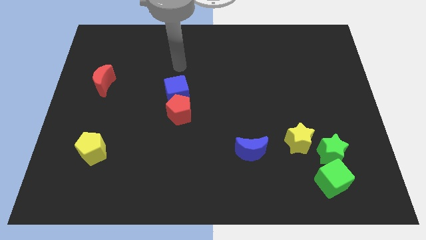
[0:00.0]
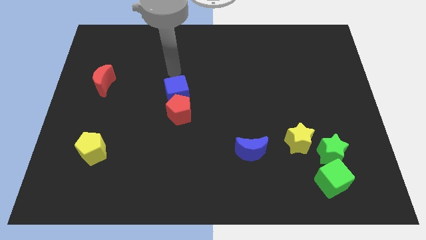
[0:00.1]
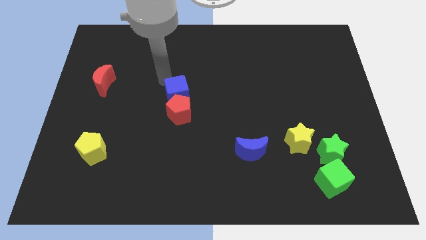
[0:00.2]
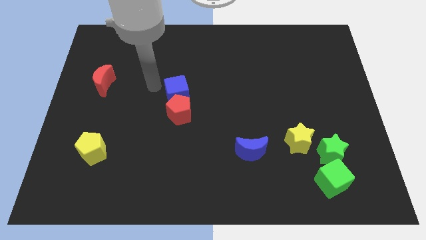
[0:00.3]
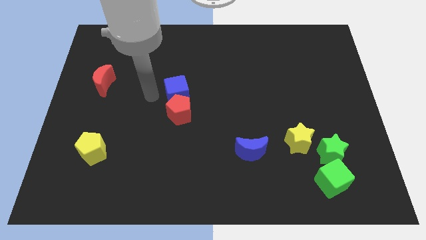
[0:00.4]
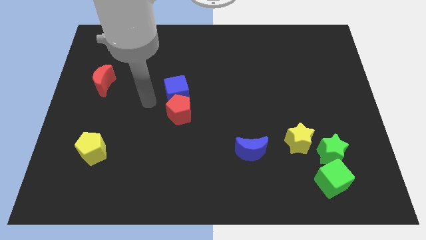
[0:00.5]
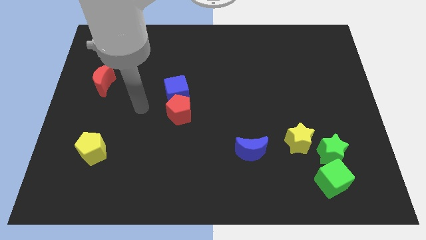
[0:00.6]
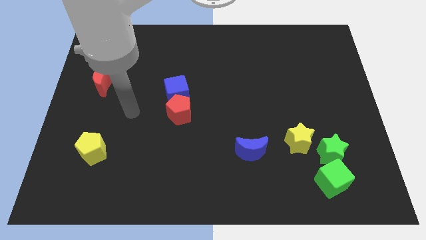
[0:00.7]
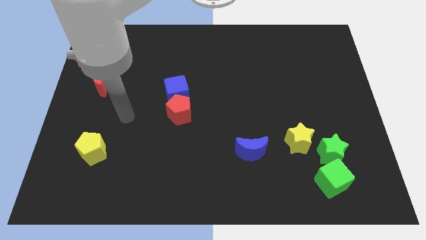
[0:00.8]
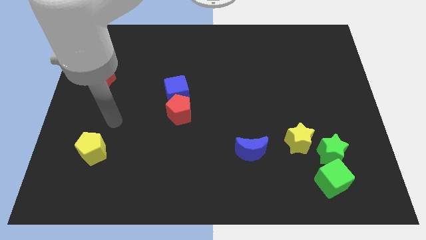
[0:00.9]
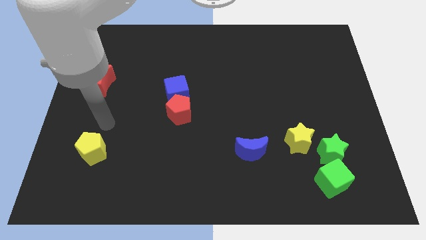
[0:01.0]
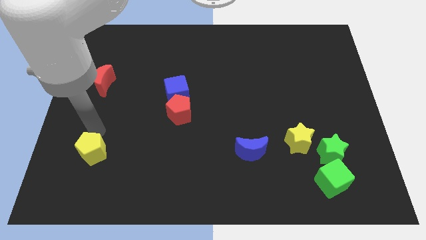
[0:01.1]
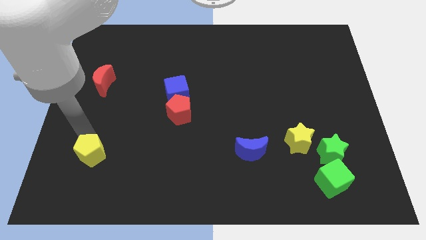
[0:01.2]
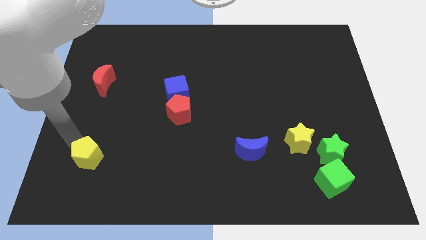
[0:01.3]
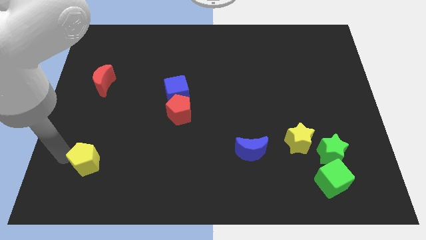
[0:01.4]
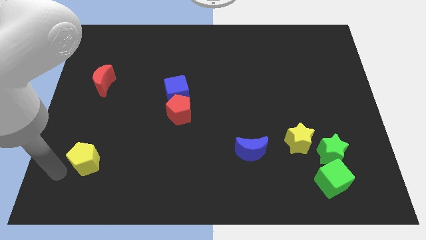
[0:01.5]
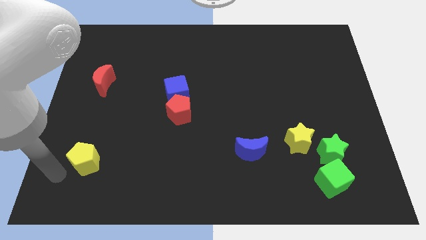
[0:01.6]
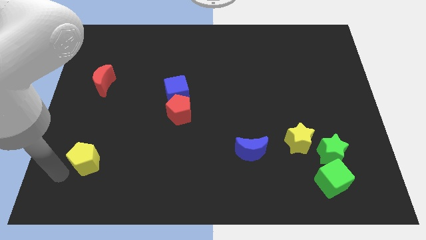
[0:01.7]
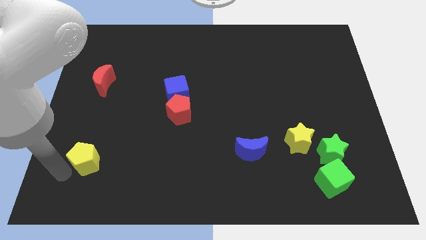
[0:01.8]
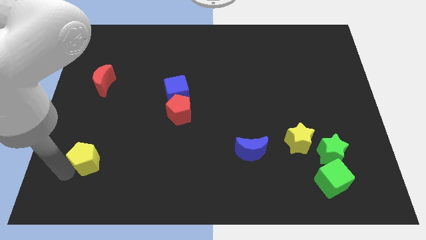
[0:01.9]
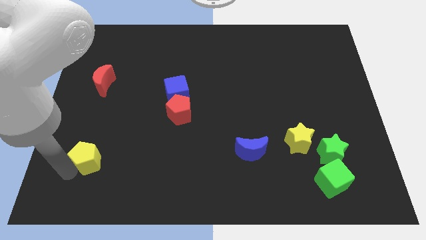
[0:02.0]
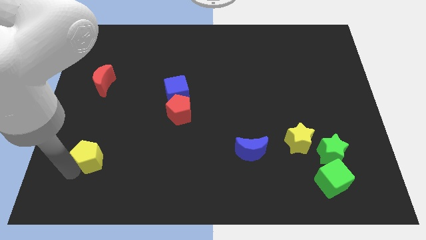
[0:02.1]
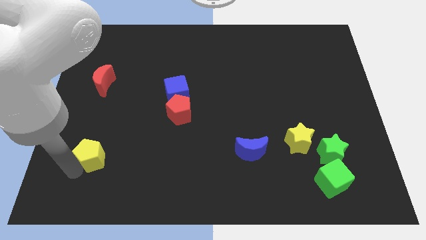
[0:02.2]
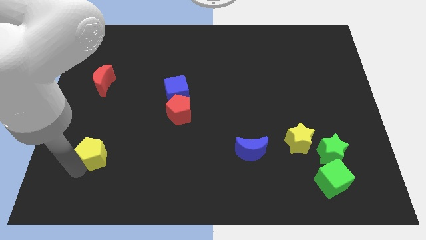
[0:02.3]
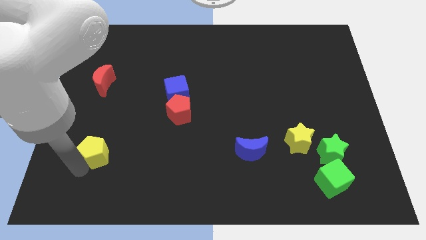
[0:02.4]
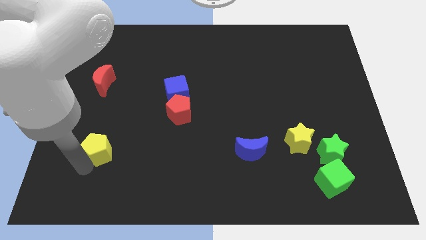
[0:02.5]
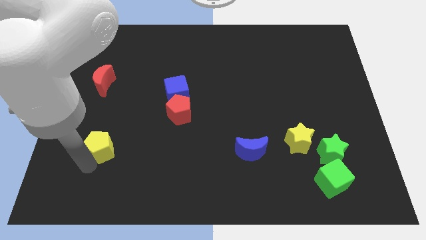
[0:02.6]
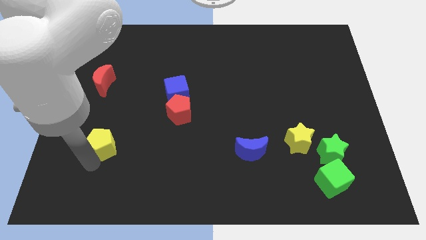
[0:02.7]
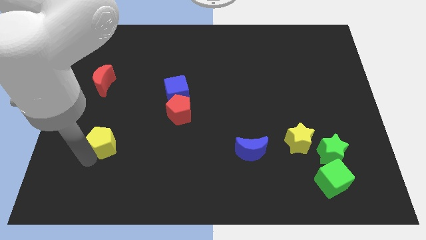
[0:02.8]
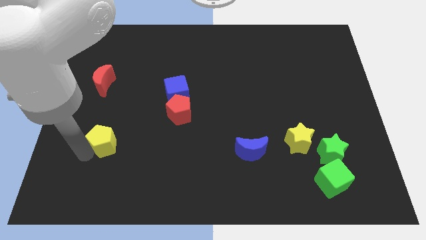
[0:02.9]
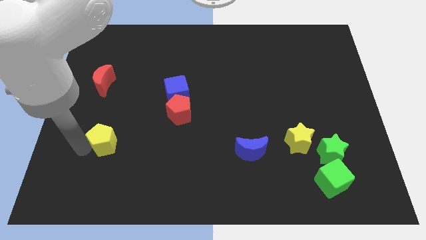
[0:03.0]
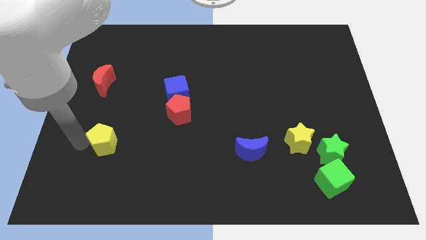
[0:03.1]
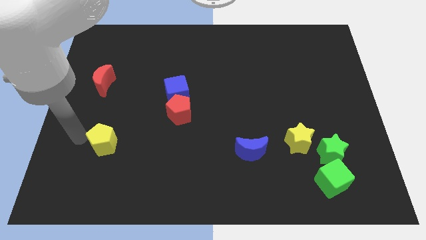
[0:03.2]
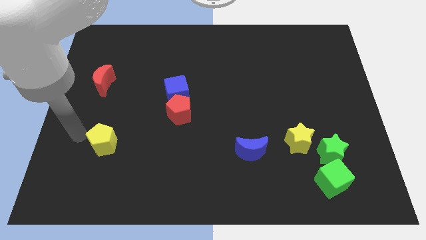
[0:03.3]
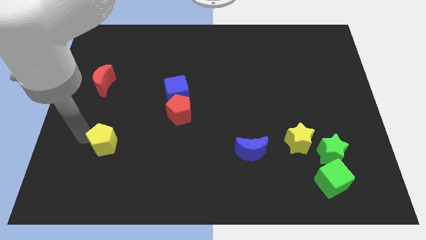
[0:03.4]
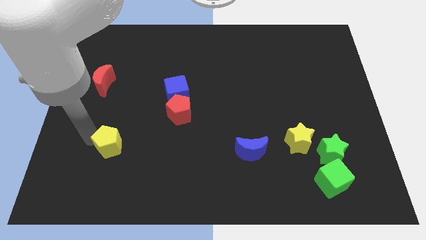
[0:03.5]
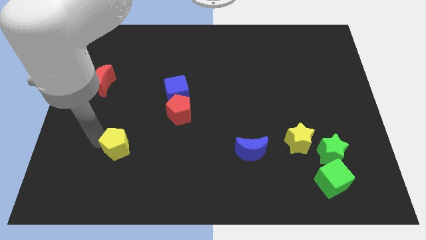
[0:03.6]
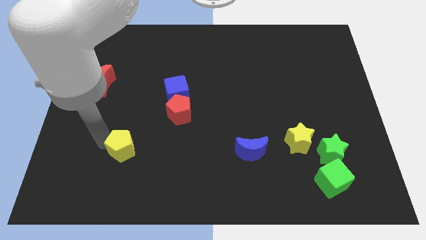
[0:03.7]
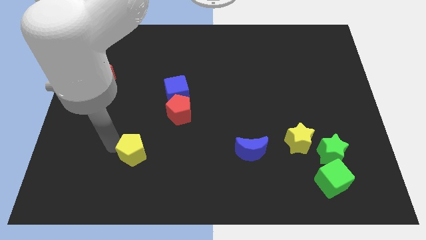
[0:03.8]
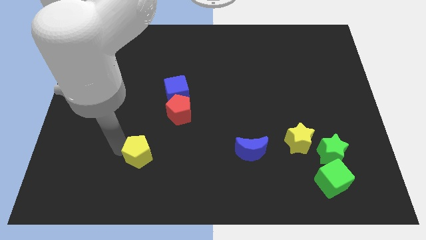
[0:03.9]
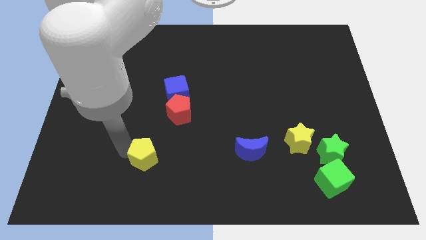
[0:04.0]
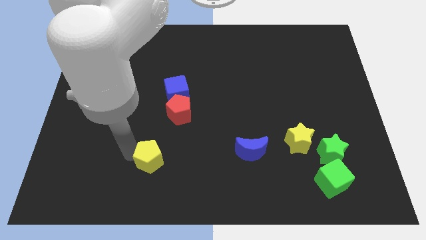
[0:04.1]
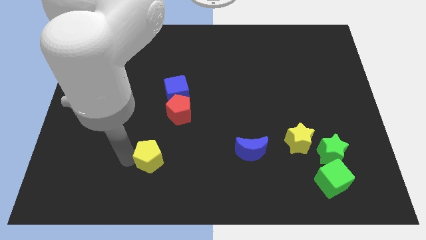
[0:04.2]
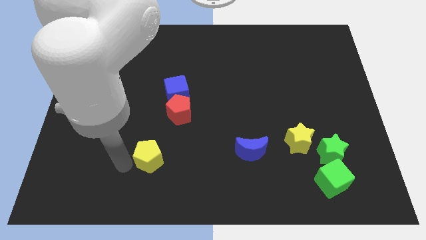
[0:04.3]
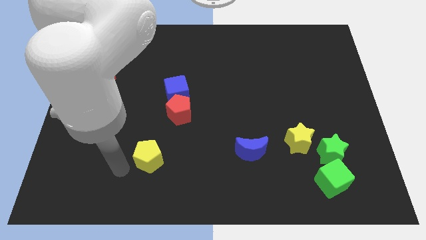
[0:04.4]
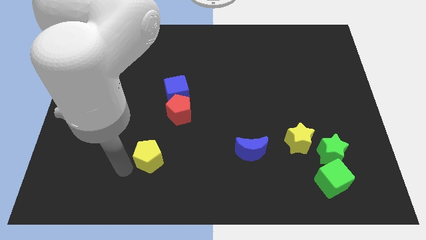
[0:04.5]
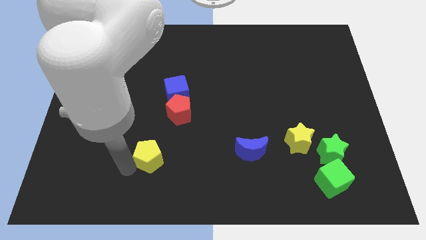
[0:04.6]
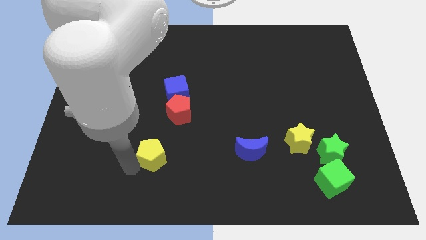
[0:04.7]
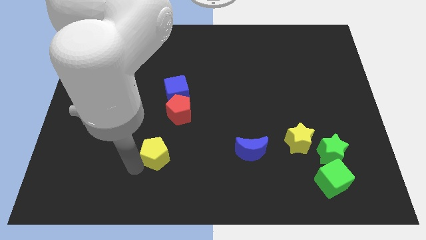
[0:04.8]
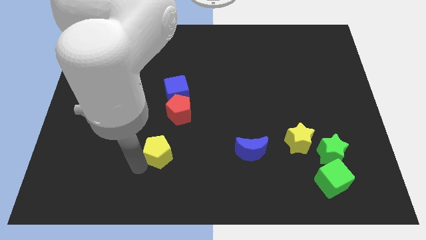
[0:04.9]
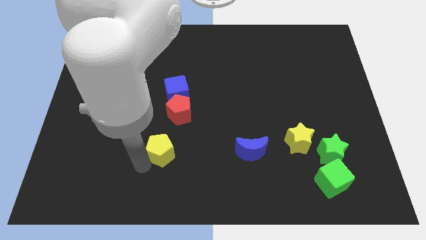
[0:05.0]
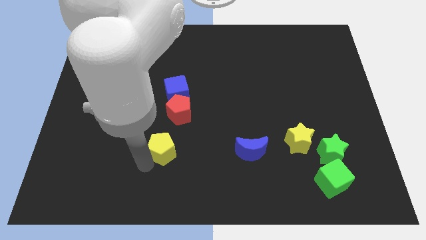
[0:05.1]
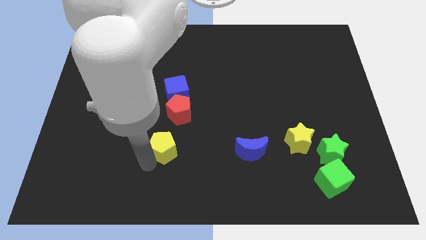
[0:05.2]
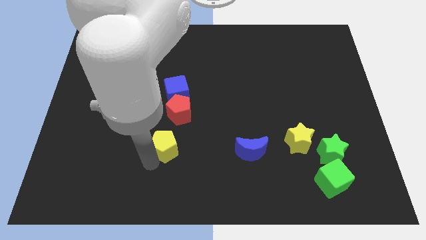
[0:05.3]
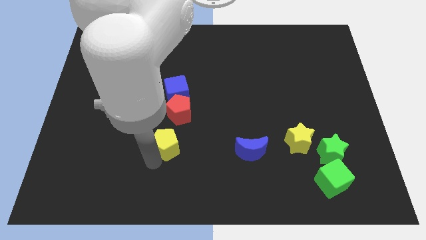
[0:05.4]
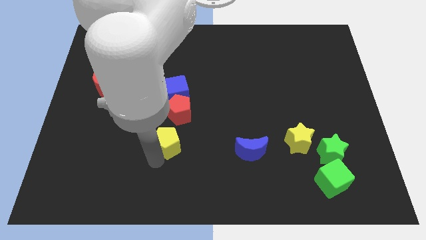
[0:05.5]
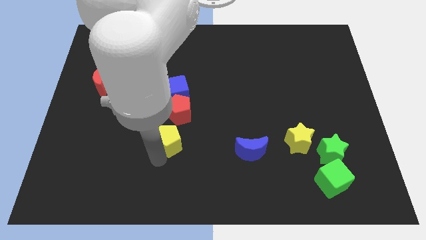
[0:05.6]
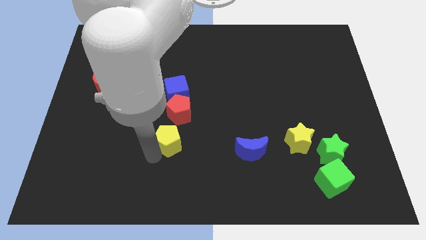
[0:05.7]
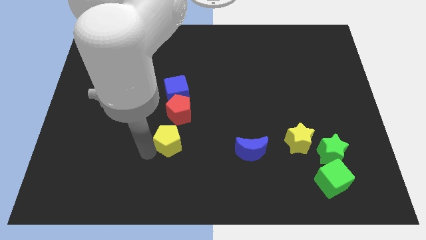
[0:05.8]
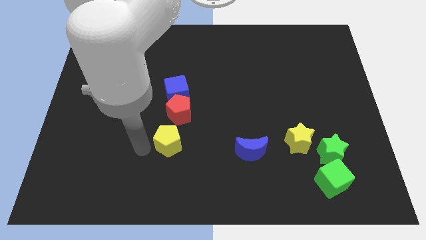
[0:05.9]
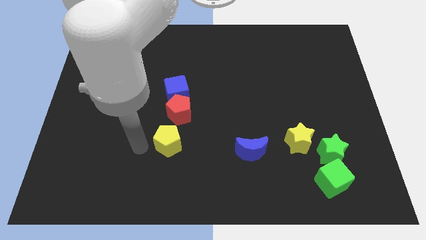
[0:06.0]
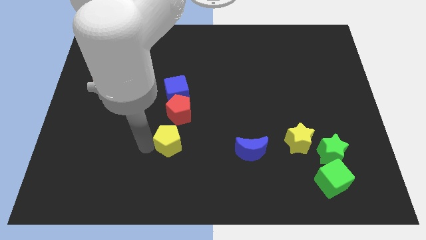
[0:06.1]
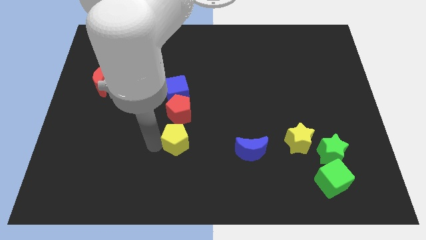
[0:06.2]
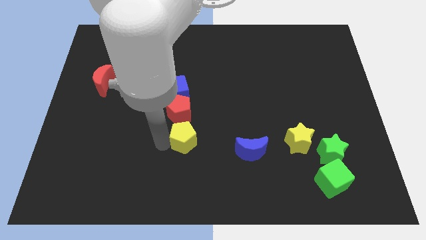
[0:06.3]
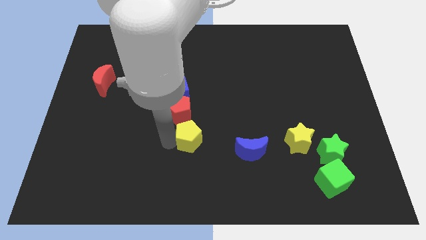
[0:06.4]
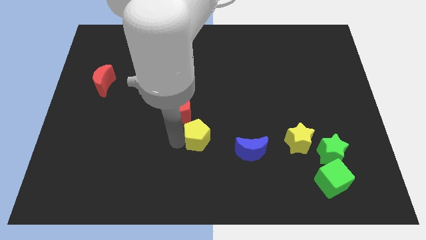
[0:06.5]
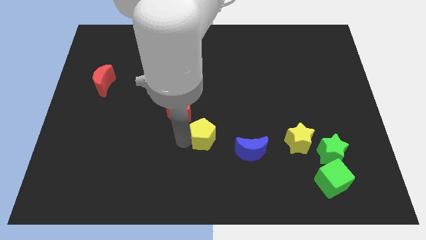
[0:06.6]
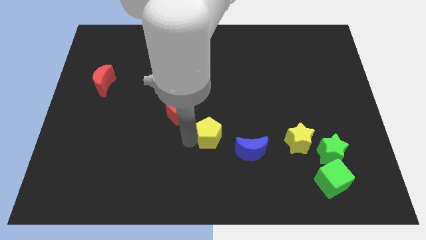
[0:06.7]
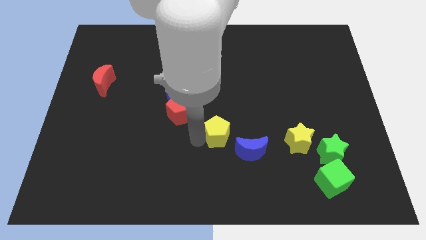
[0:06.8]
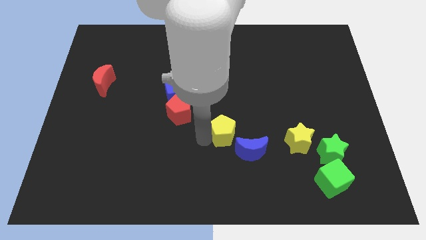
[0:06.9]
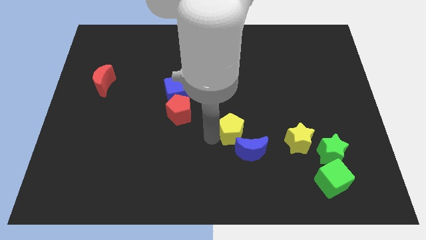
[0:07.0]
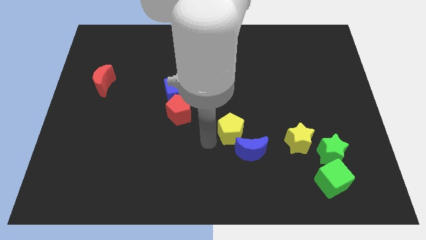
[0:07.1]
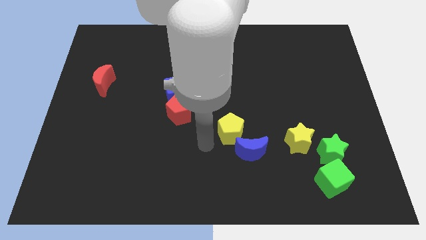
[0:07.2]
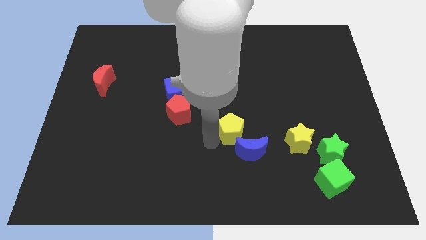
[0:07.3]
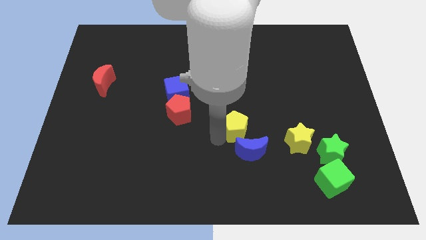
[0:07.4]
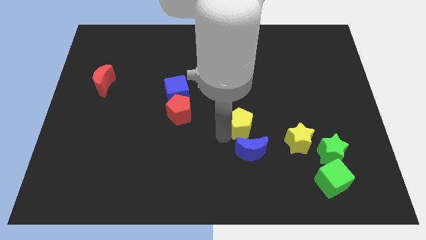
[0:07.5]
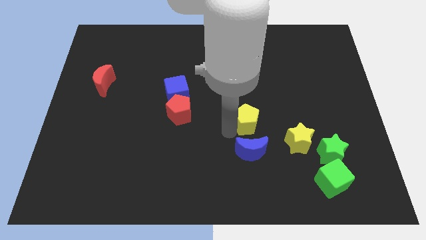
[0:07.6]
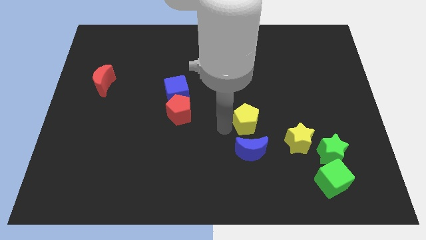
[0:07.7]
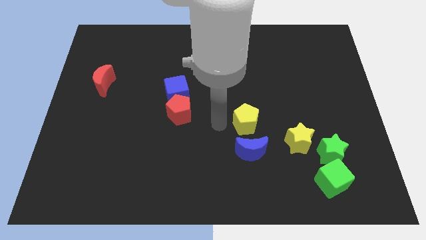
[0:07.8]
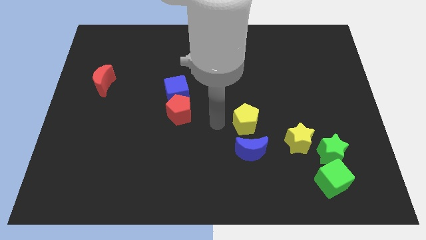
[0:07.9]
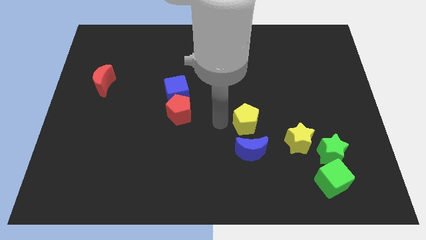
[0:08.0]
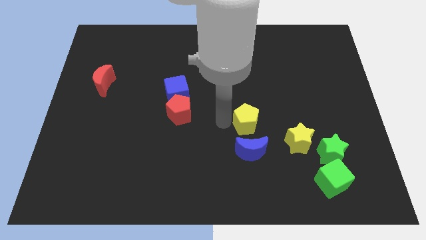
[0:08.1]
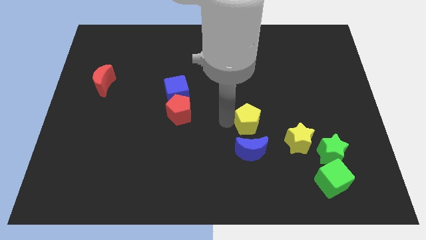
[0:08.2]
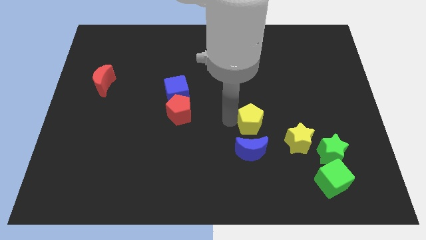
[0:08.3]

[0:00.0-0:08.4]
put the yellow pentagon to the top left side of the yellow star
